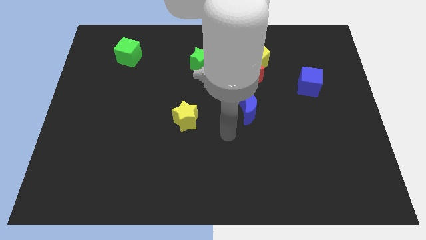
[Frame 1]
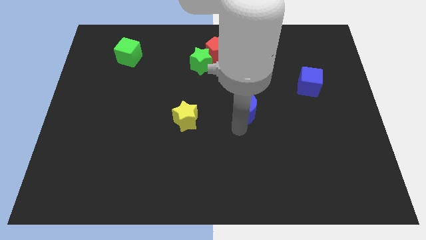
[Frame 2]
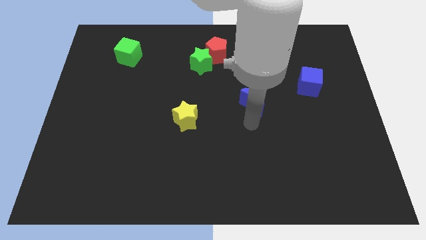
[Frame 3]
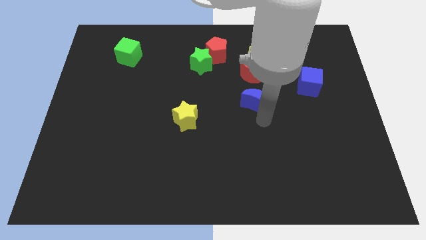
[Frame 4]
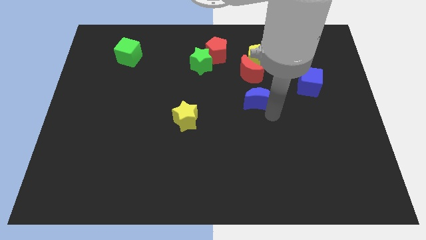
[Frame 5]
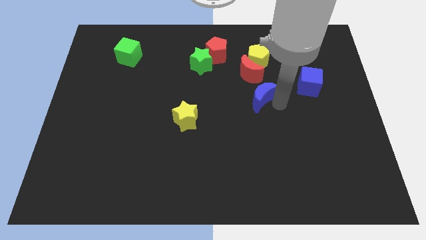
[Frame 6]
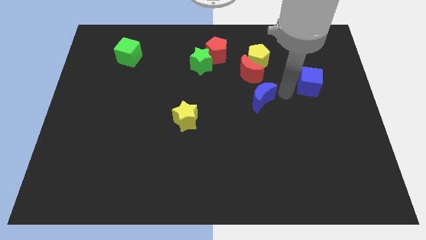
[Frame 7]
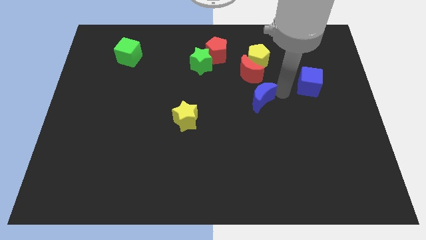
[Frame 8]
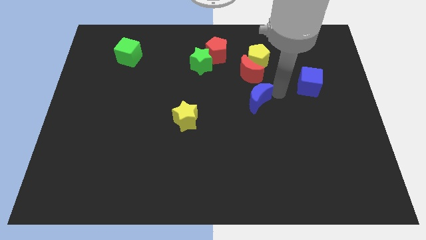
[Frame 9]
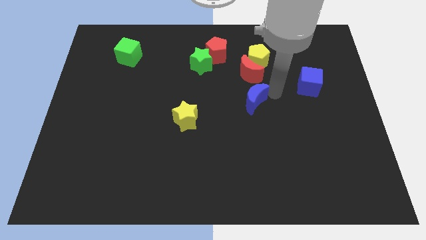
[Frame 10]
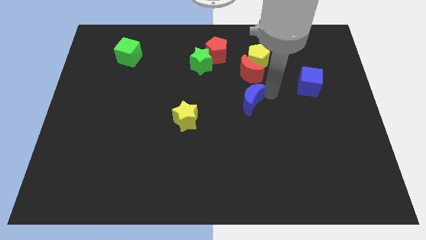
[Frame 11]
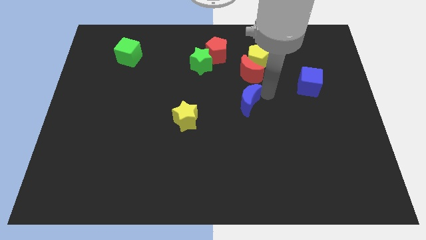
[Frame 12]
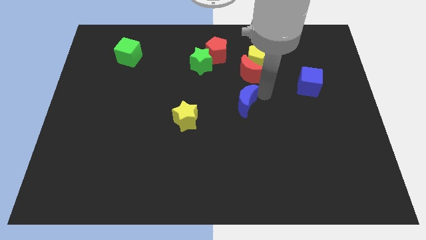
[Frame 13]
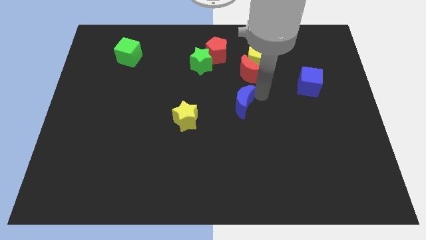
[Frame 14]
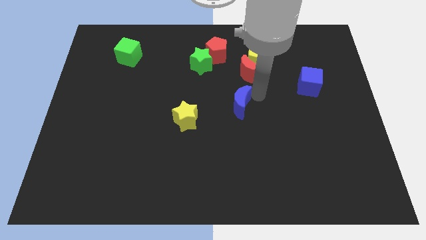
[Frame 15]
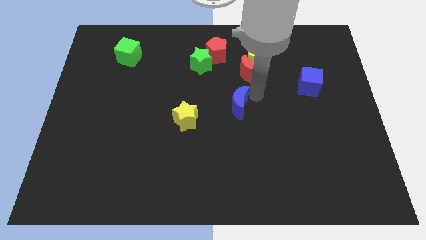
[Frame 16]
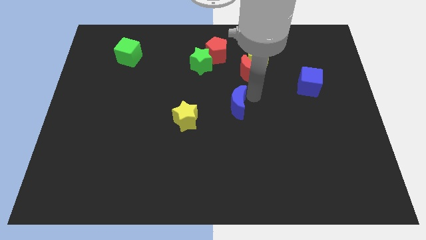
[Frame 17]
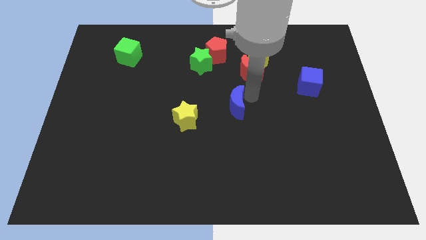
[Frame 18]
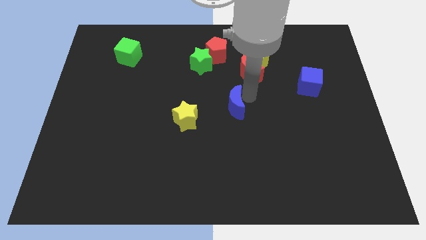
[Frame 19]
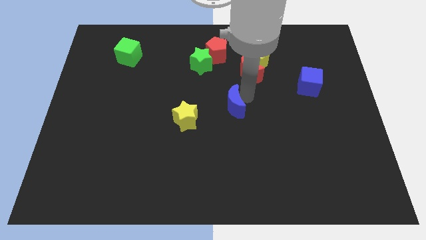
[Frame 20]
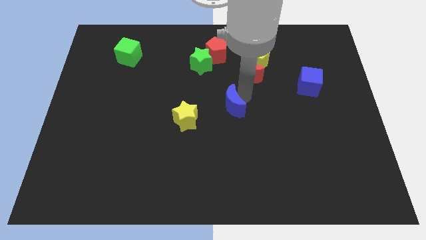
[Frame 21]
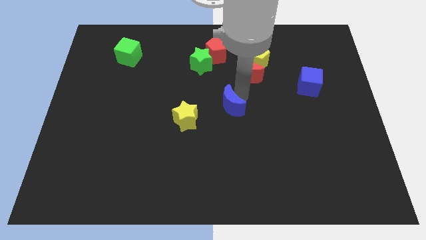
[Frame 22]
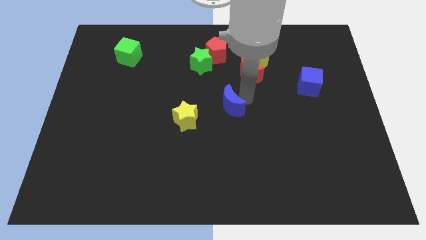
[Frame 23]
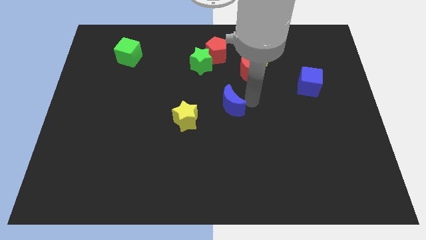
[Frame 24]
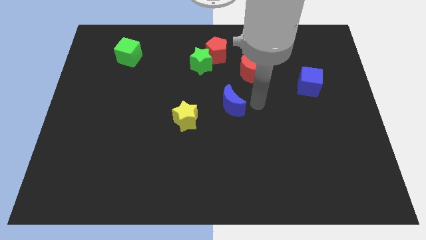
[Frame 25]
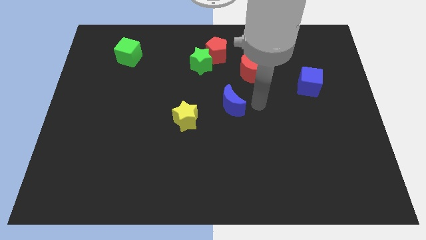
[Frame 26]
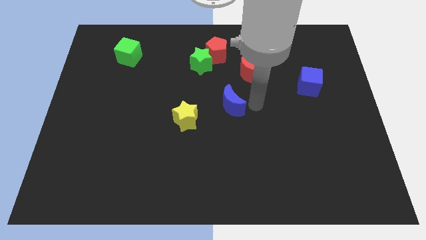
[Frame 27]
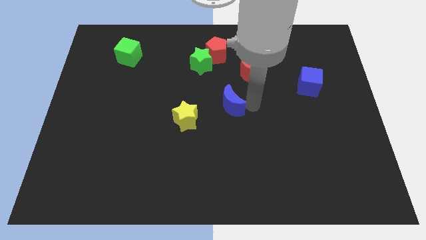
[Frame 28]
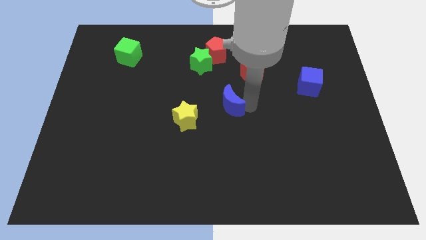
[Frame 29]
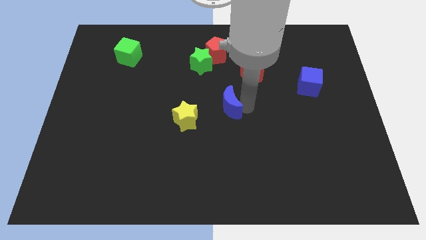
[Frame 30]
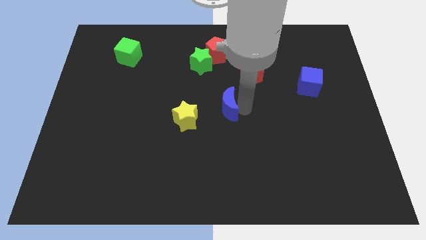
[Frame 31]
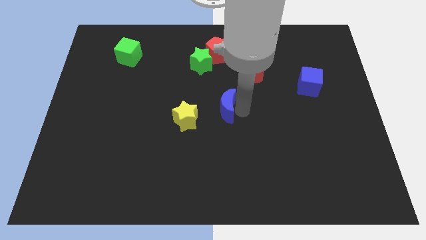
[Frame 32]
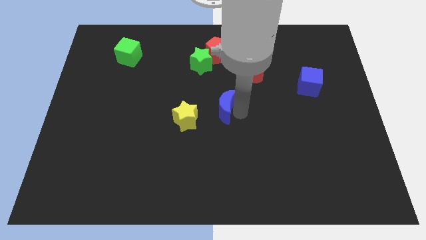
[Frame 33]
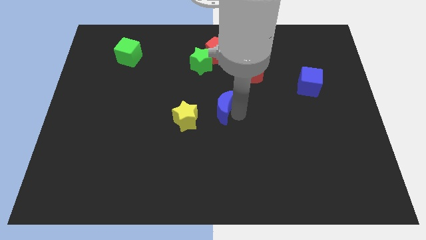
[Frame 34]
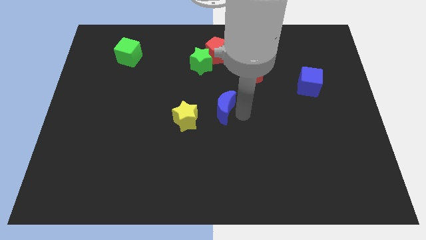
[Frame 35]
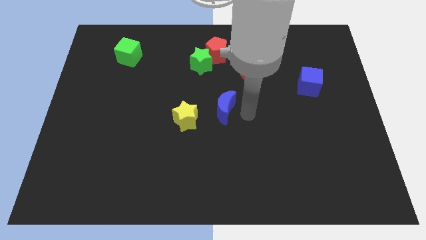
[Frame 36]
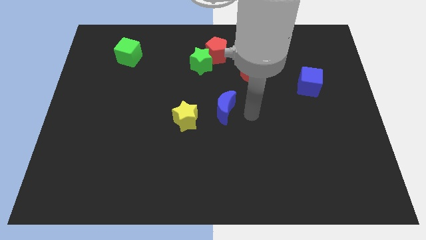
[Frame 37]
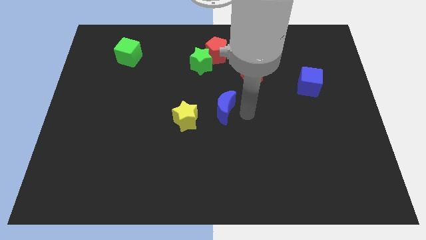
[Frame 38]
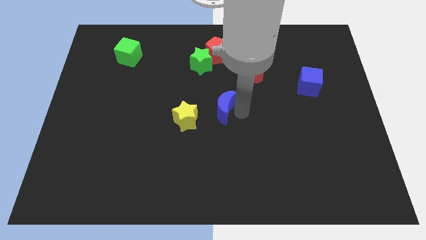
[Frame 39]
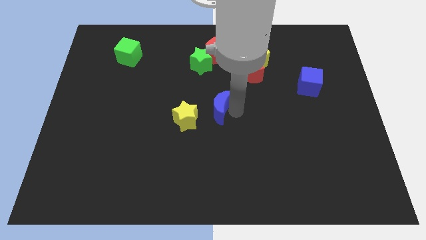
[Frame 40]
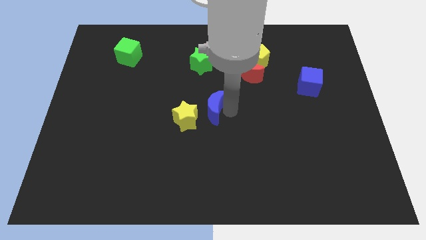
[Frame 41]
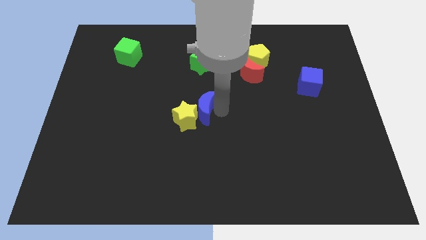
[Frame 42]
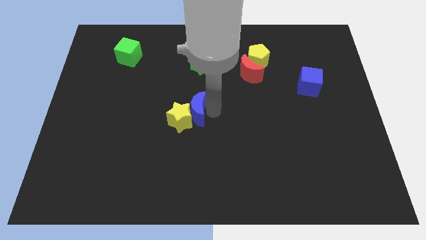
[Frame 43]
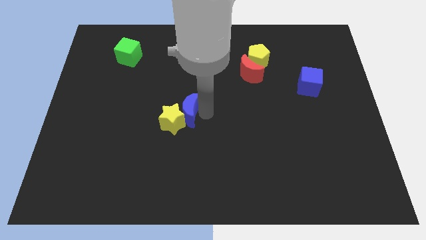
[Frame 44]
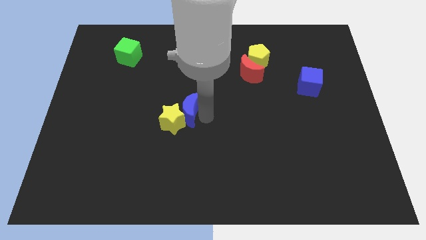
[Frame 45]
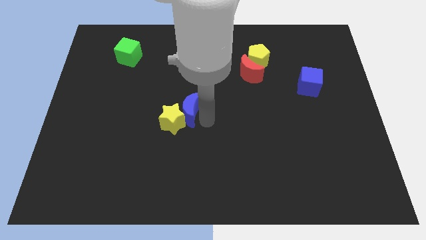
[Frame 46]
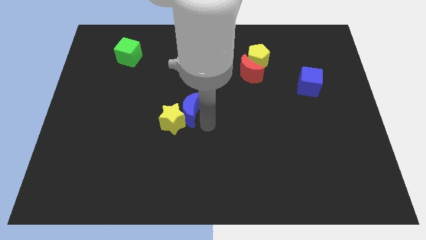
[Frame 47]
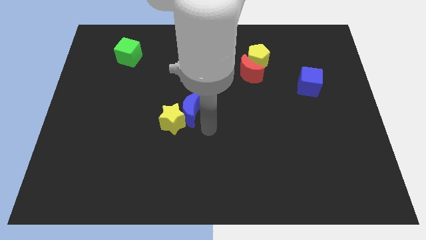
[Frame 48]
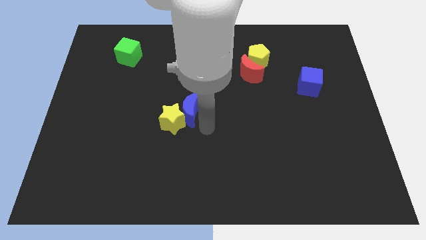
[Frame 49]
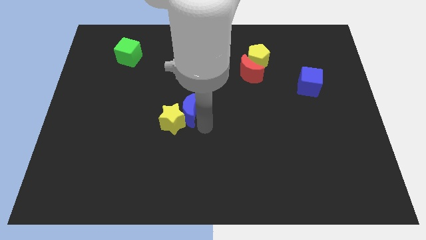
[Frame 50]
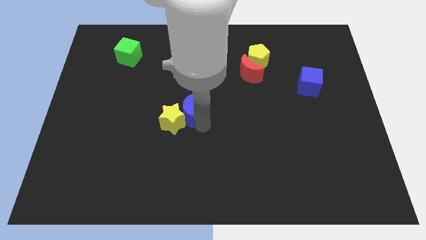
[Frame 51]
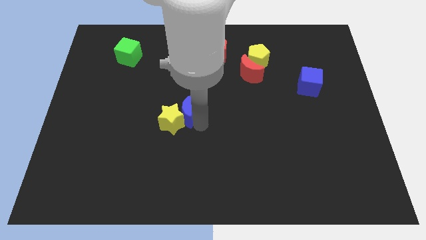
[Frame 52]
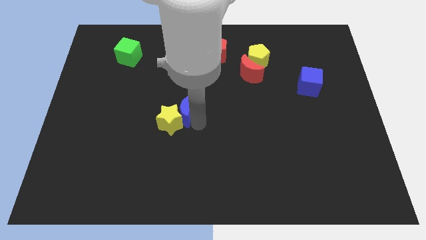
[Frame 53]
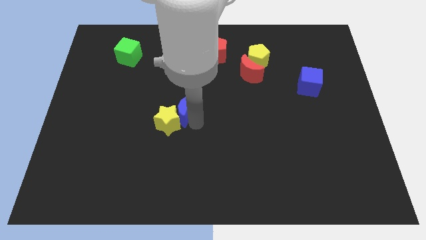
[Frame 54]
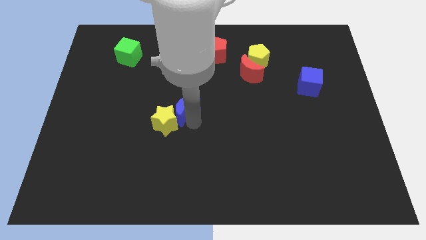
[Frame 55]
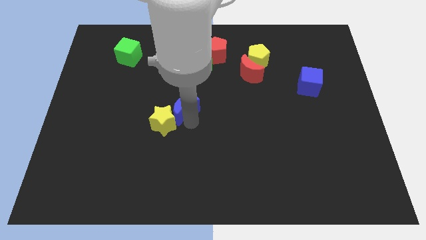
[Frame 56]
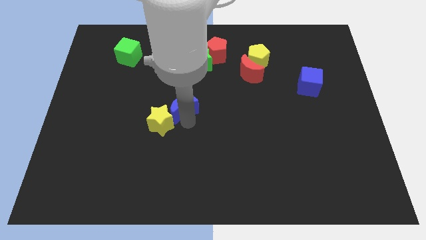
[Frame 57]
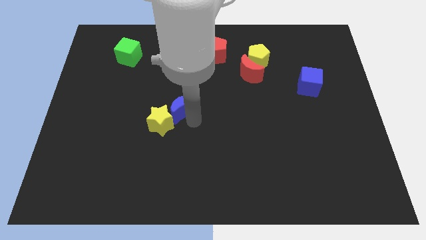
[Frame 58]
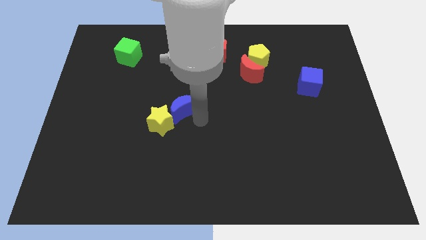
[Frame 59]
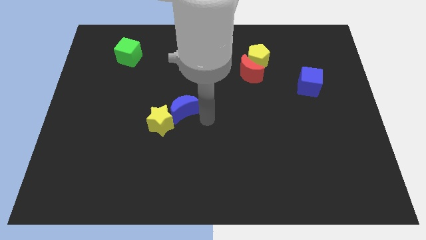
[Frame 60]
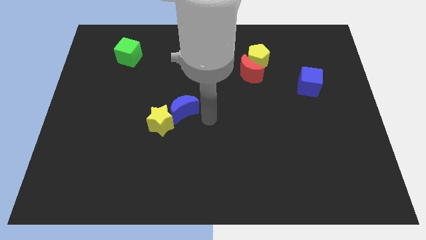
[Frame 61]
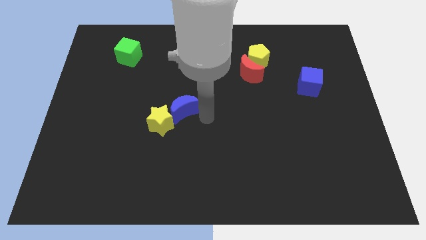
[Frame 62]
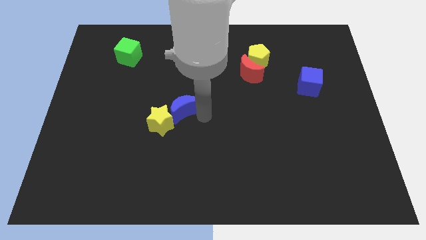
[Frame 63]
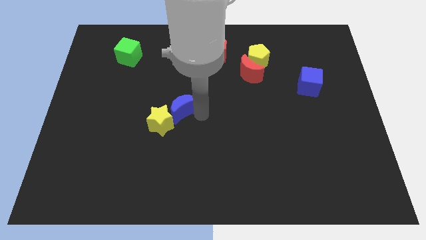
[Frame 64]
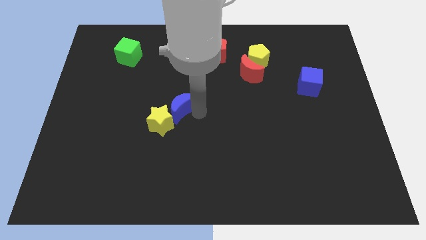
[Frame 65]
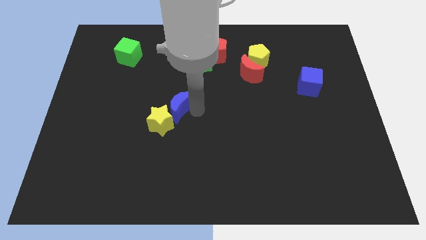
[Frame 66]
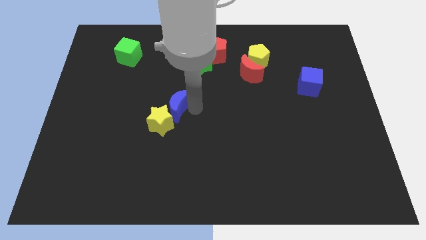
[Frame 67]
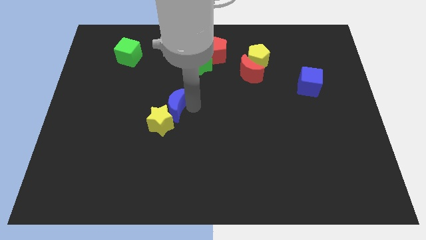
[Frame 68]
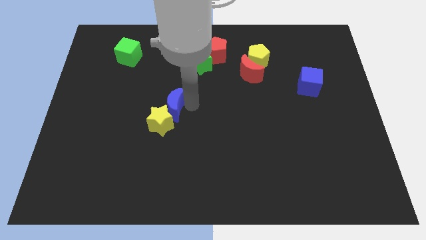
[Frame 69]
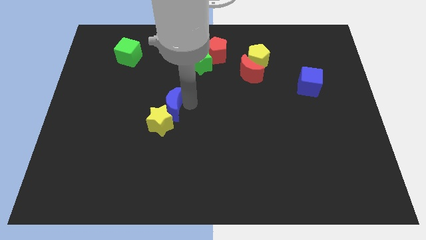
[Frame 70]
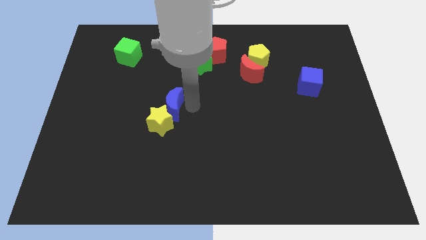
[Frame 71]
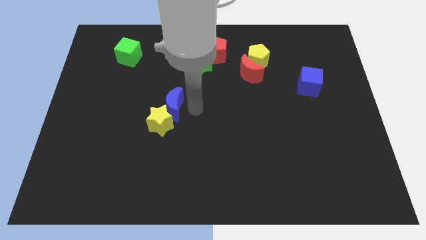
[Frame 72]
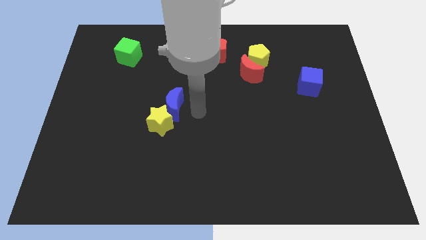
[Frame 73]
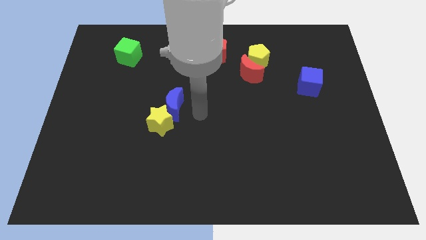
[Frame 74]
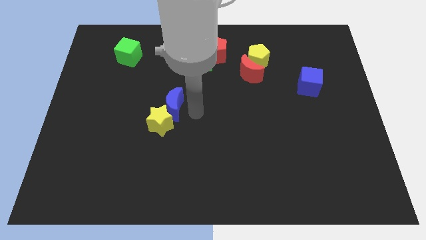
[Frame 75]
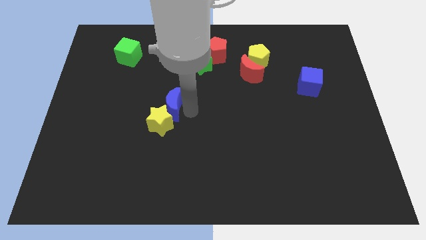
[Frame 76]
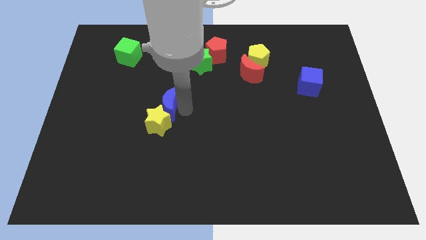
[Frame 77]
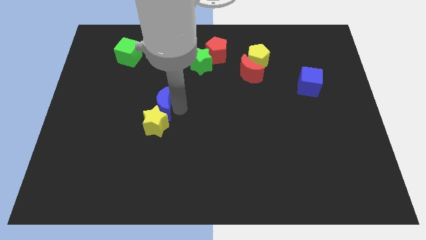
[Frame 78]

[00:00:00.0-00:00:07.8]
push the blue moon left

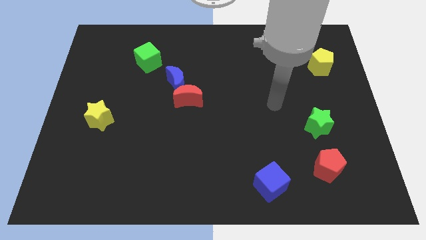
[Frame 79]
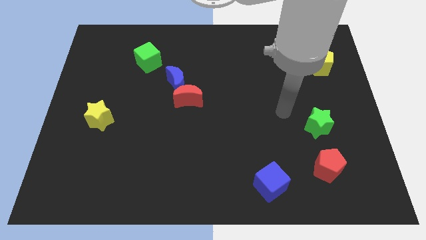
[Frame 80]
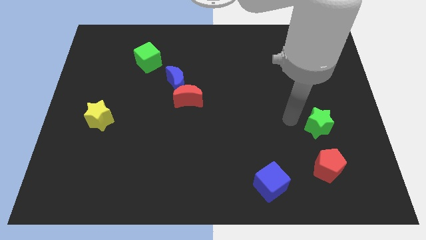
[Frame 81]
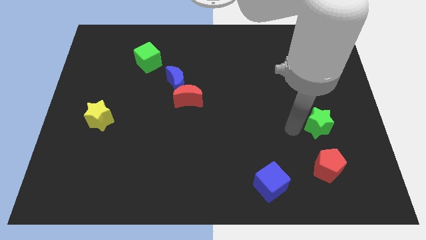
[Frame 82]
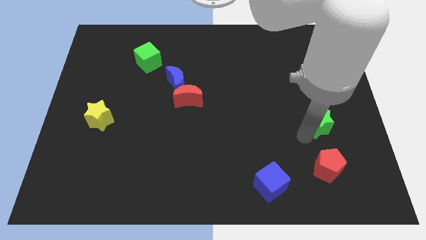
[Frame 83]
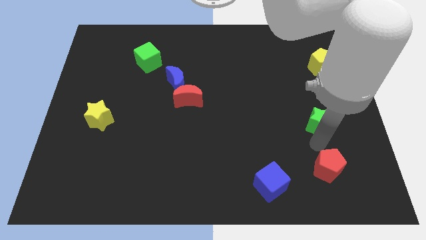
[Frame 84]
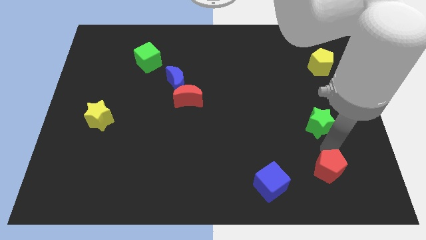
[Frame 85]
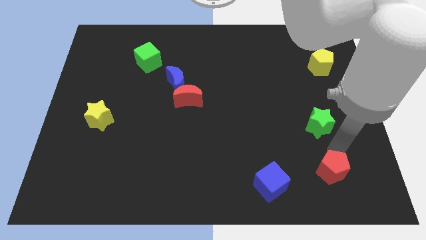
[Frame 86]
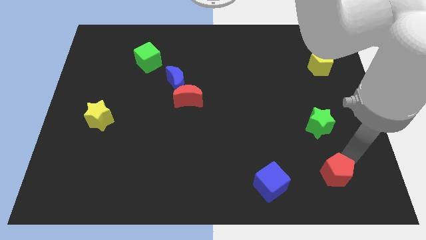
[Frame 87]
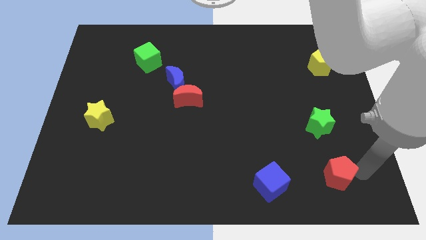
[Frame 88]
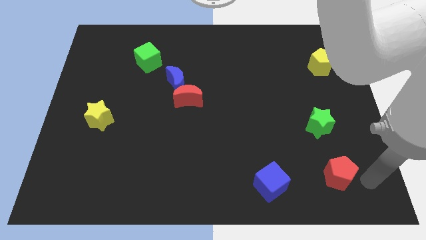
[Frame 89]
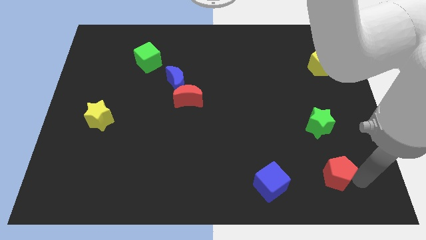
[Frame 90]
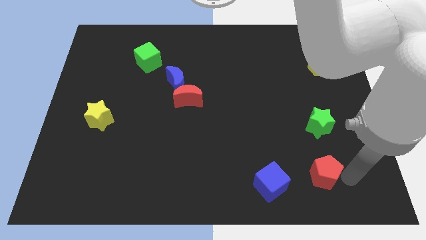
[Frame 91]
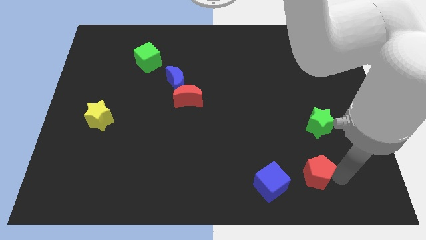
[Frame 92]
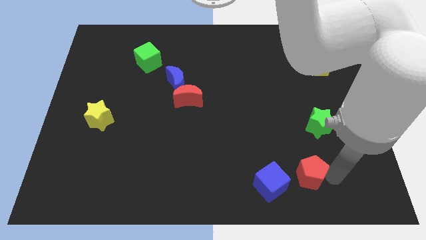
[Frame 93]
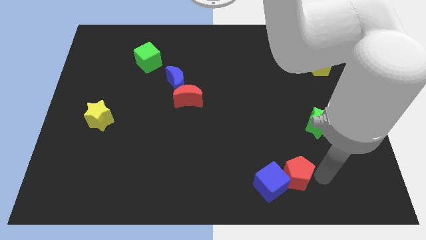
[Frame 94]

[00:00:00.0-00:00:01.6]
push the red pentagon a bit to the left
